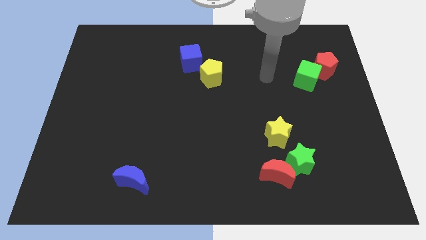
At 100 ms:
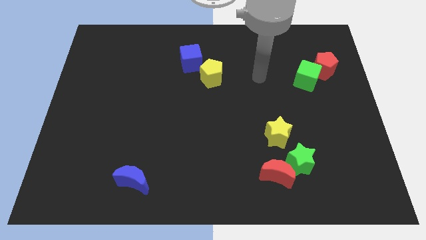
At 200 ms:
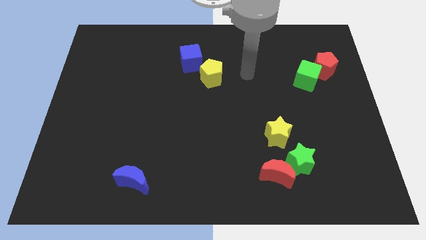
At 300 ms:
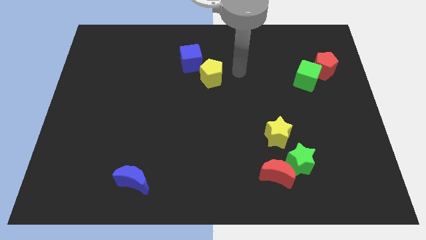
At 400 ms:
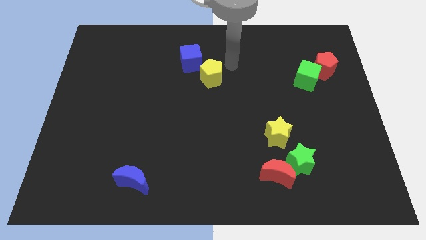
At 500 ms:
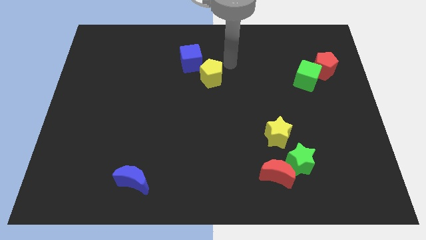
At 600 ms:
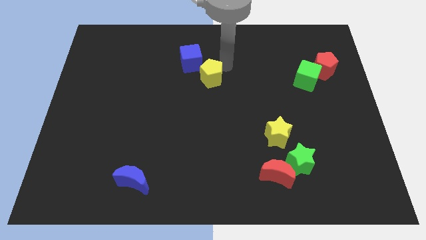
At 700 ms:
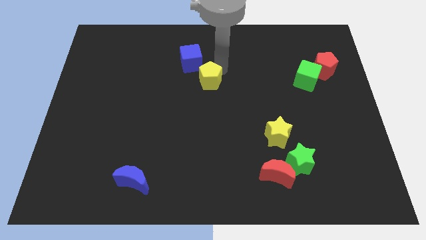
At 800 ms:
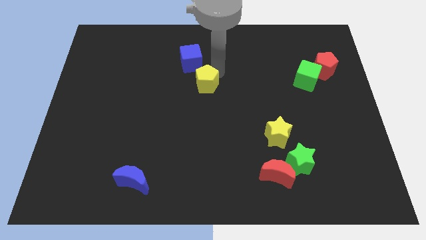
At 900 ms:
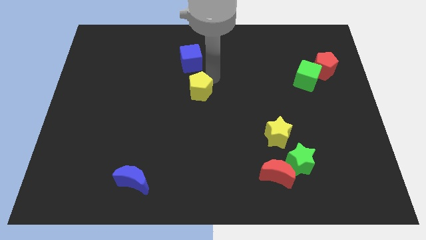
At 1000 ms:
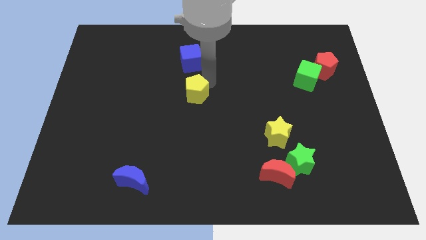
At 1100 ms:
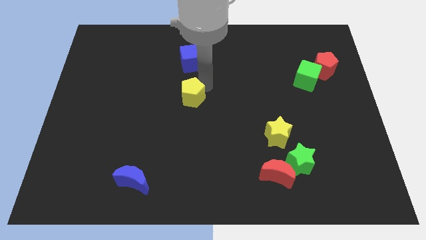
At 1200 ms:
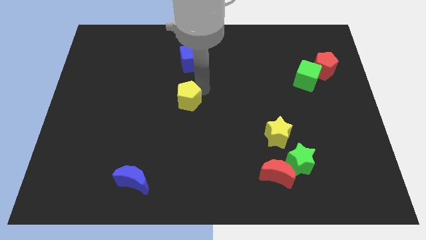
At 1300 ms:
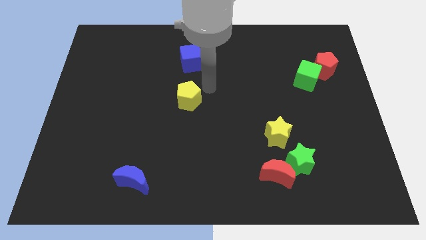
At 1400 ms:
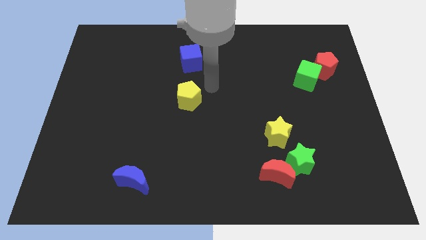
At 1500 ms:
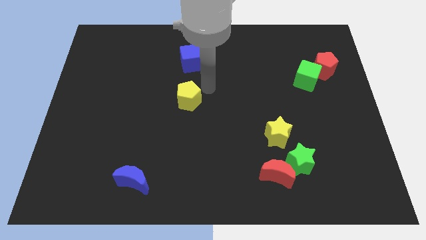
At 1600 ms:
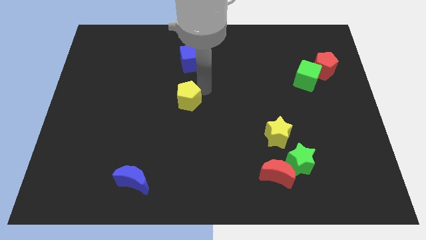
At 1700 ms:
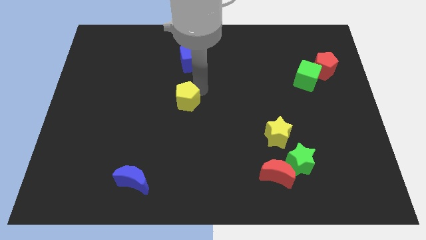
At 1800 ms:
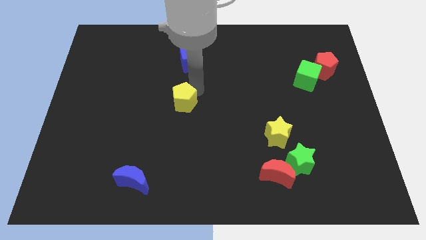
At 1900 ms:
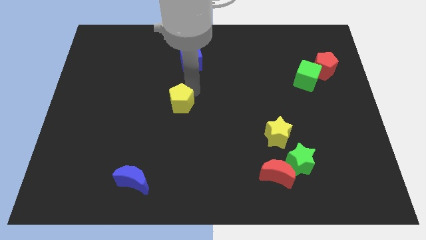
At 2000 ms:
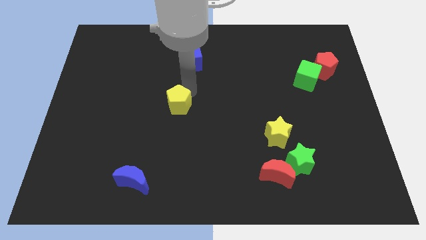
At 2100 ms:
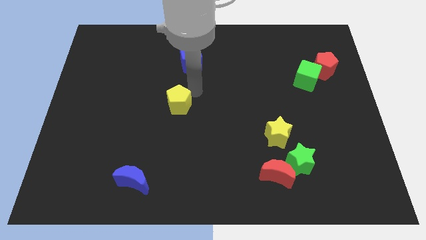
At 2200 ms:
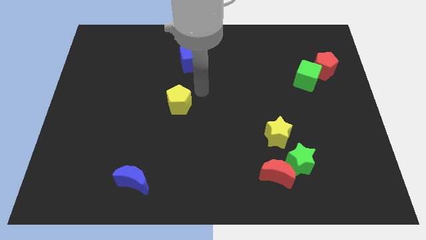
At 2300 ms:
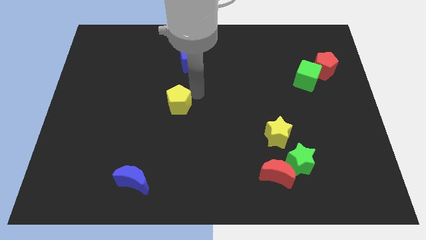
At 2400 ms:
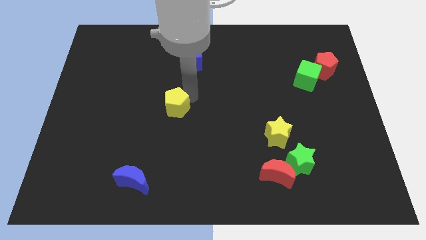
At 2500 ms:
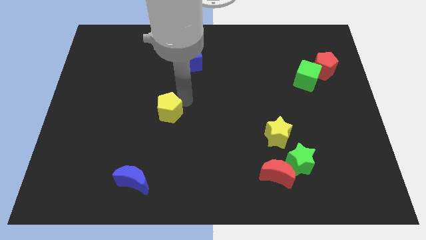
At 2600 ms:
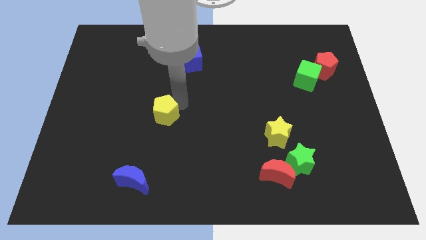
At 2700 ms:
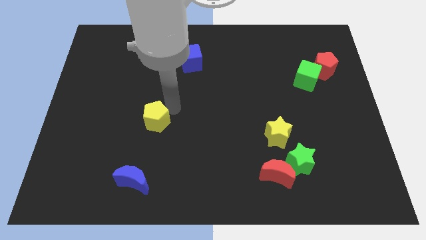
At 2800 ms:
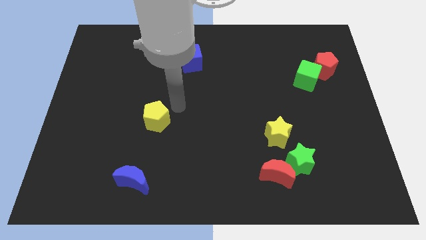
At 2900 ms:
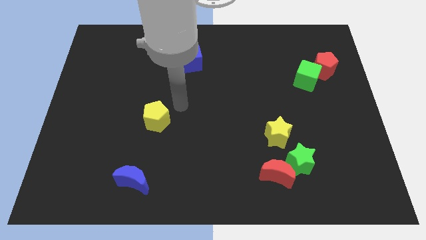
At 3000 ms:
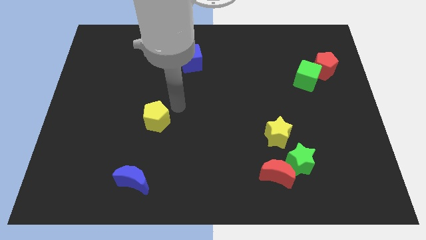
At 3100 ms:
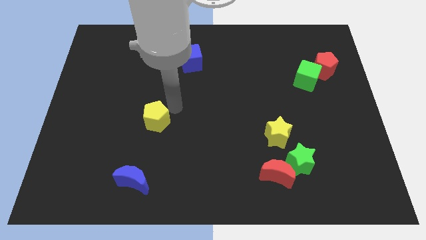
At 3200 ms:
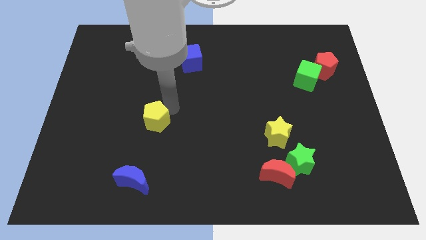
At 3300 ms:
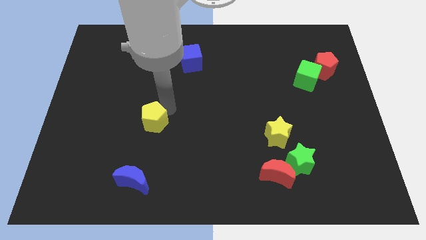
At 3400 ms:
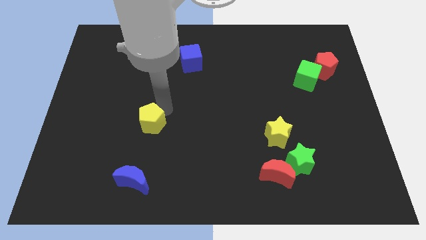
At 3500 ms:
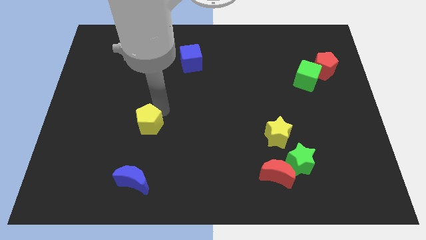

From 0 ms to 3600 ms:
slide the yellow pentagon down and left

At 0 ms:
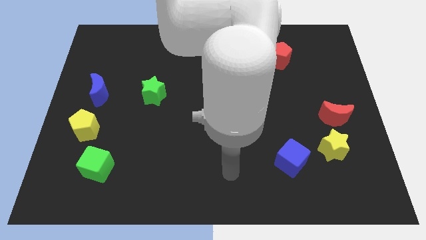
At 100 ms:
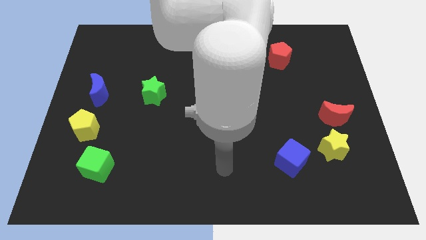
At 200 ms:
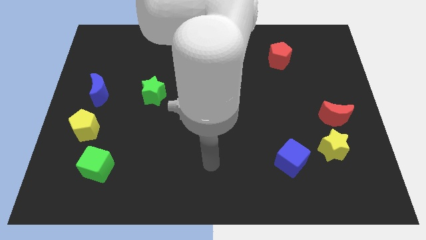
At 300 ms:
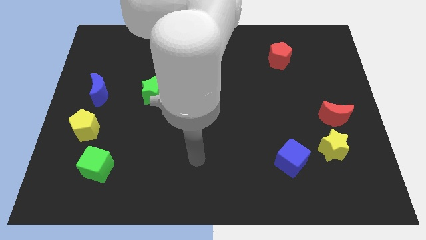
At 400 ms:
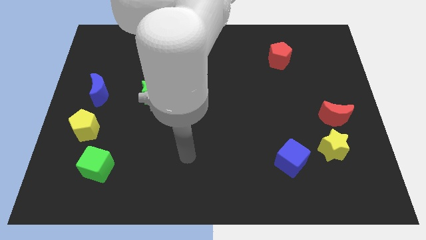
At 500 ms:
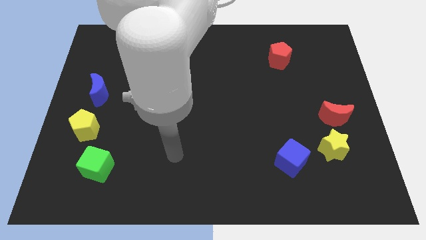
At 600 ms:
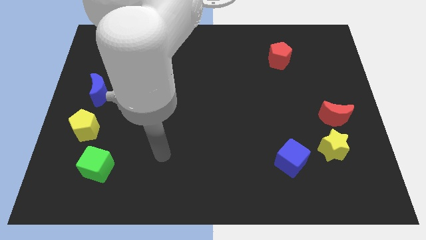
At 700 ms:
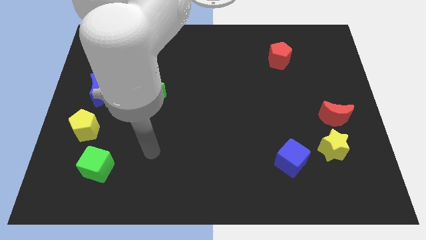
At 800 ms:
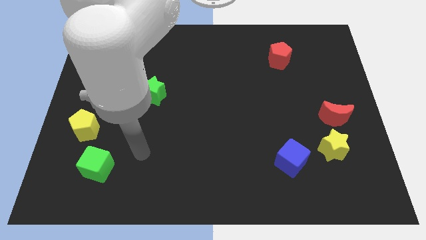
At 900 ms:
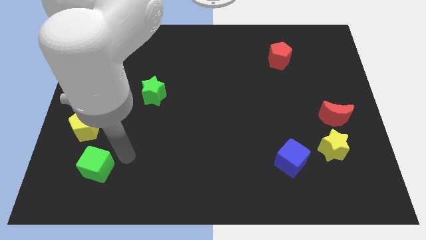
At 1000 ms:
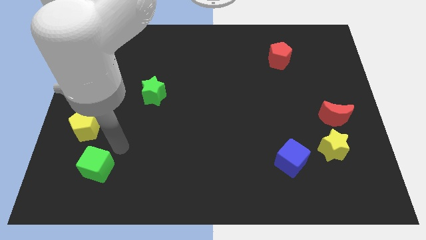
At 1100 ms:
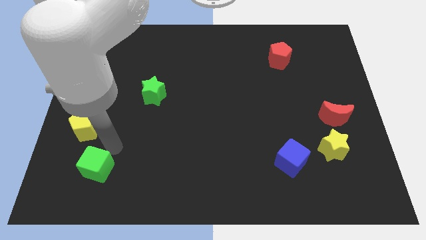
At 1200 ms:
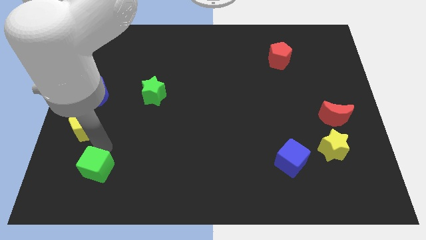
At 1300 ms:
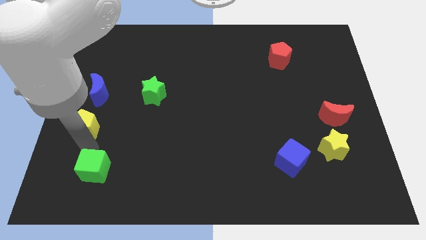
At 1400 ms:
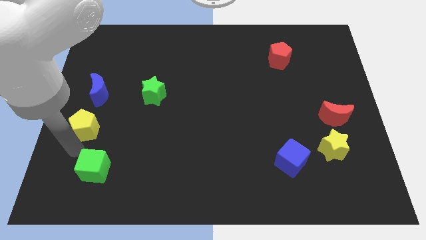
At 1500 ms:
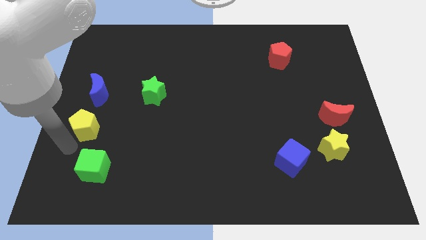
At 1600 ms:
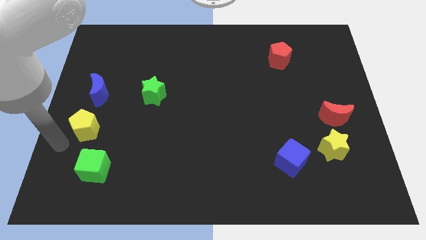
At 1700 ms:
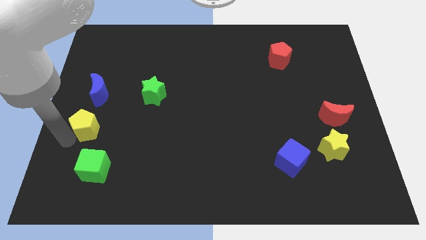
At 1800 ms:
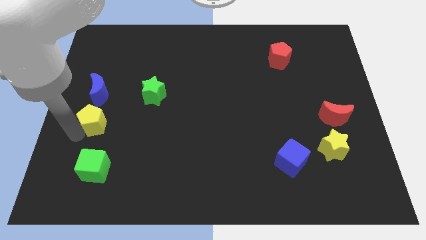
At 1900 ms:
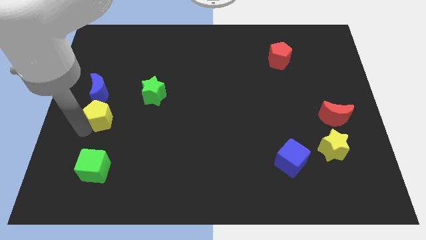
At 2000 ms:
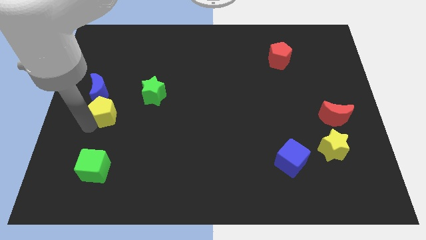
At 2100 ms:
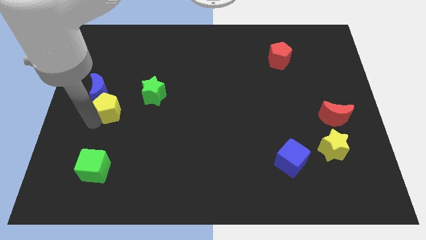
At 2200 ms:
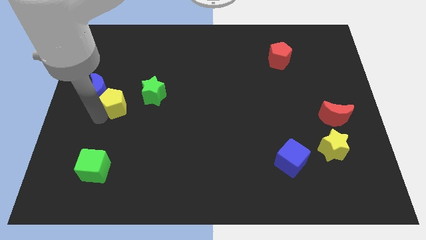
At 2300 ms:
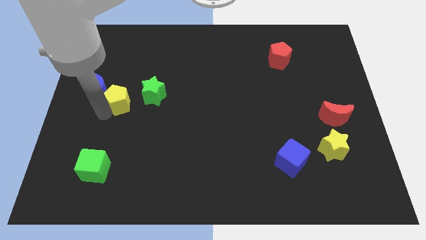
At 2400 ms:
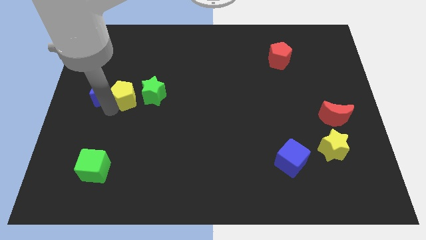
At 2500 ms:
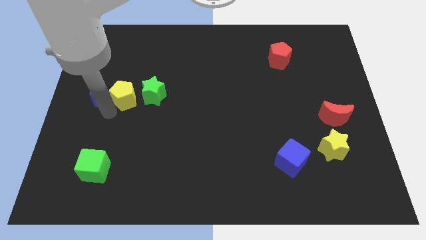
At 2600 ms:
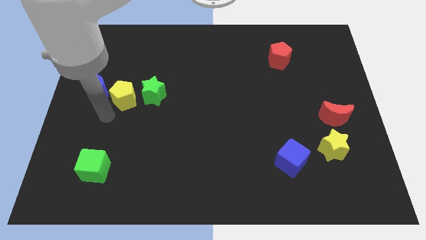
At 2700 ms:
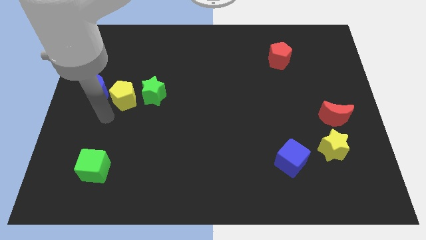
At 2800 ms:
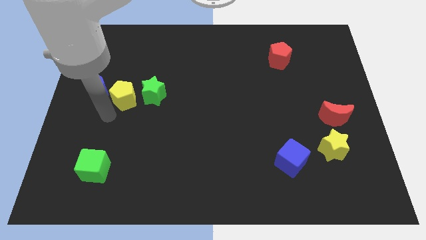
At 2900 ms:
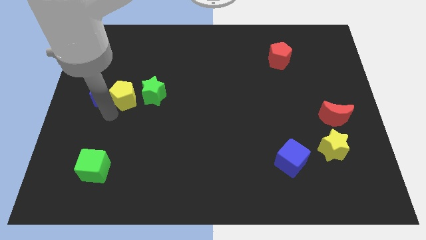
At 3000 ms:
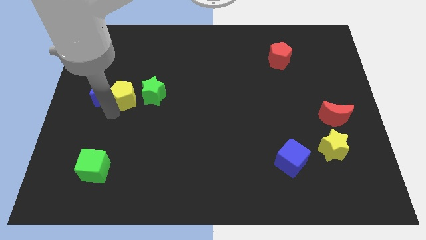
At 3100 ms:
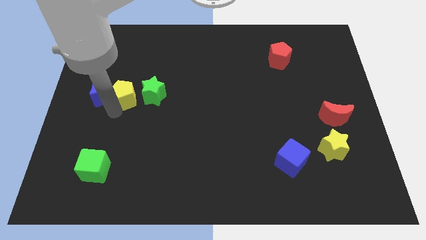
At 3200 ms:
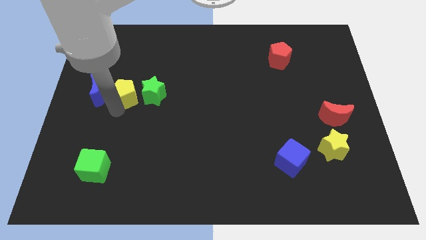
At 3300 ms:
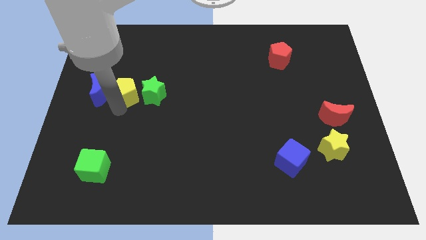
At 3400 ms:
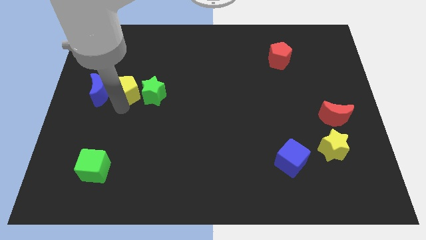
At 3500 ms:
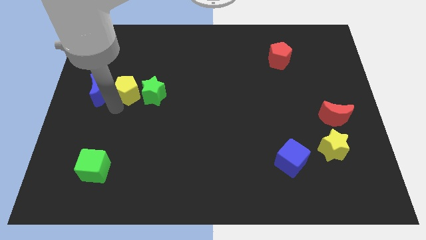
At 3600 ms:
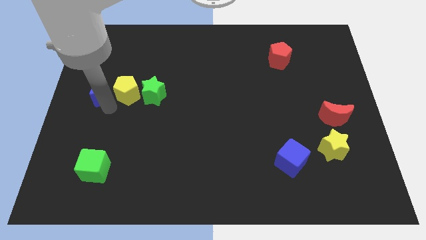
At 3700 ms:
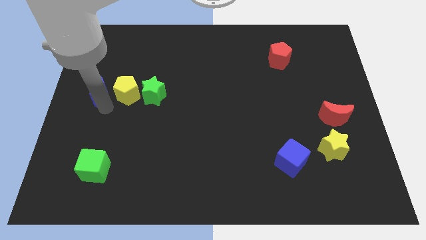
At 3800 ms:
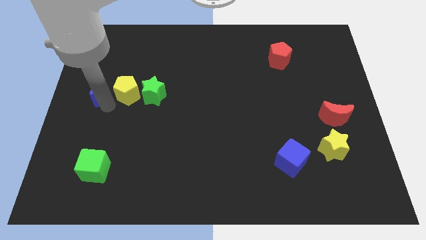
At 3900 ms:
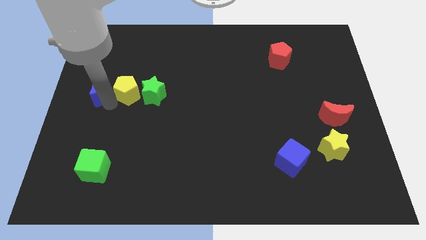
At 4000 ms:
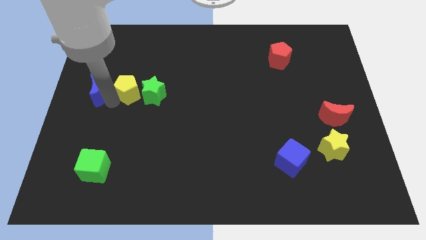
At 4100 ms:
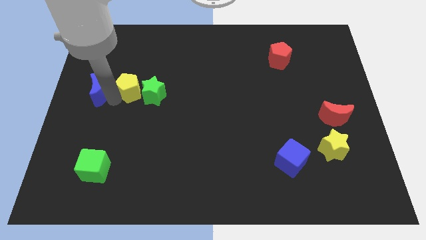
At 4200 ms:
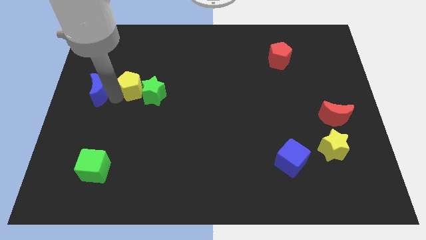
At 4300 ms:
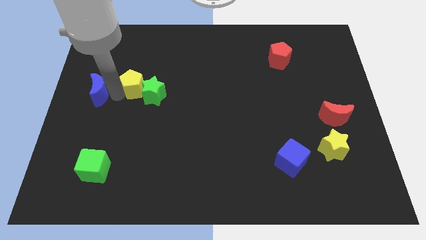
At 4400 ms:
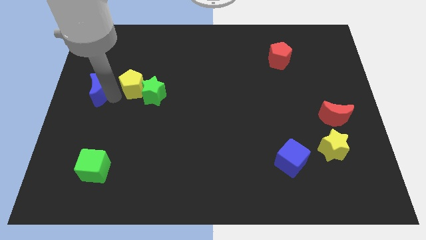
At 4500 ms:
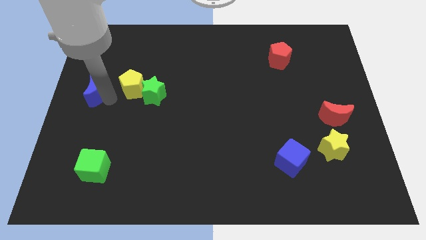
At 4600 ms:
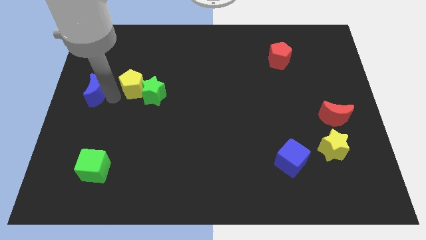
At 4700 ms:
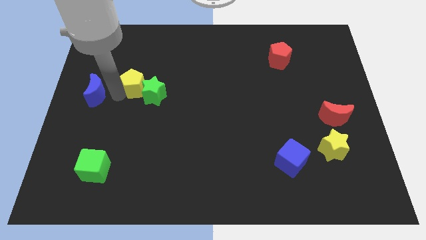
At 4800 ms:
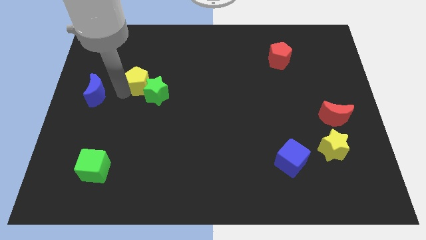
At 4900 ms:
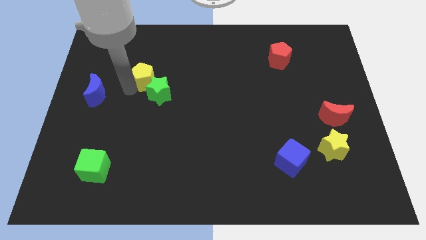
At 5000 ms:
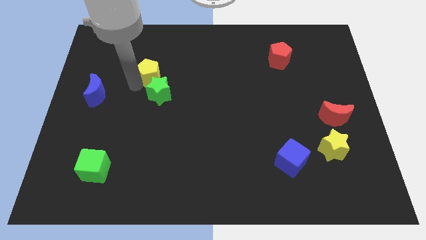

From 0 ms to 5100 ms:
slide the yellow pentagon up and then right
